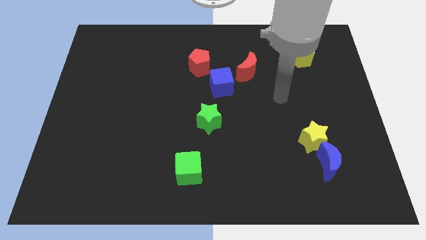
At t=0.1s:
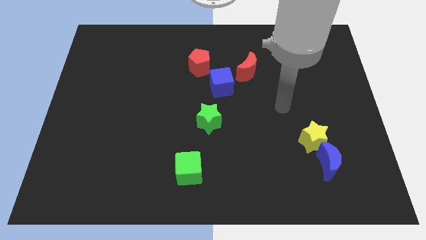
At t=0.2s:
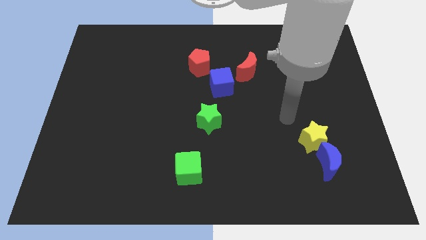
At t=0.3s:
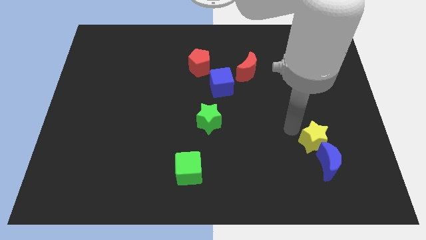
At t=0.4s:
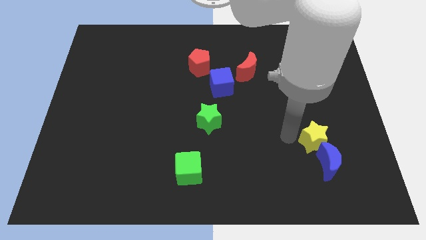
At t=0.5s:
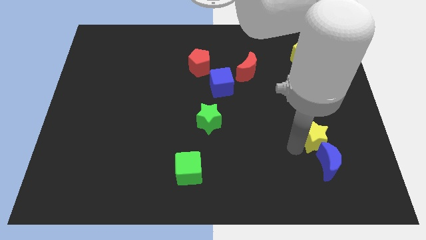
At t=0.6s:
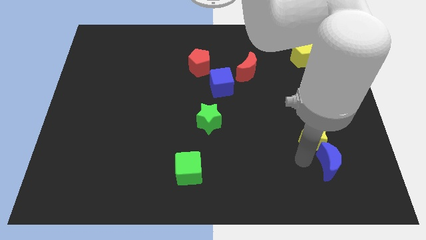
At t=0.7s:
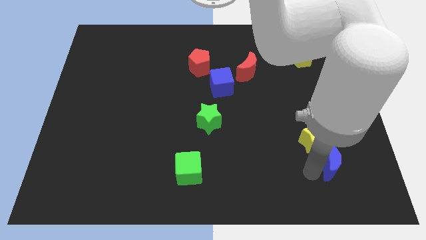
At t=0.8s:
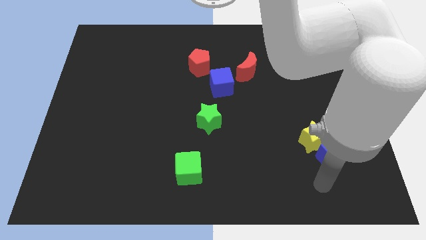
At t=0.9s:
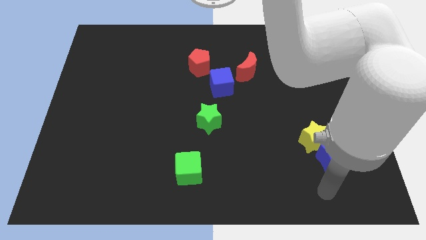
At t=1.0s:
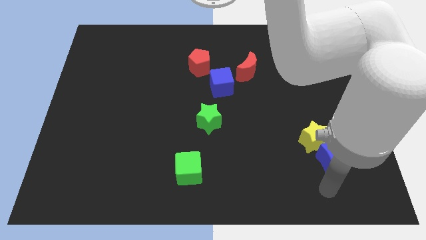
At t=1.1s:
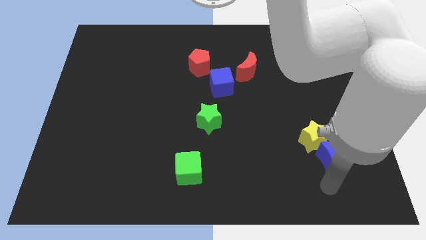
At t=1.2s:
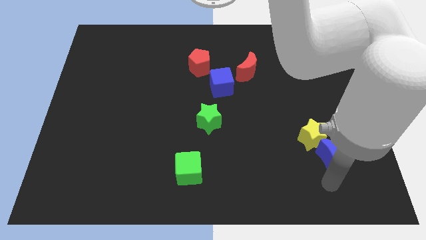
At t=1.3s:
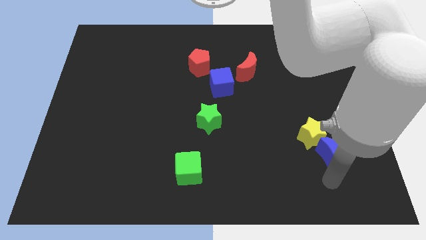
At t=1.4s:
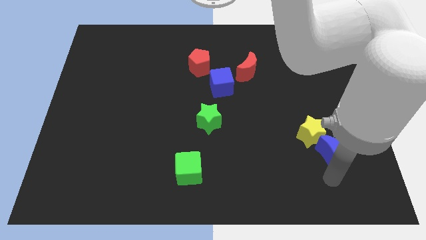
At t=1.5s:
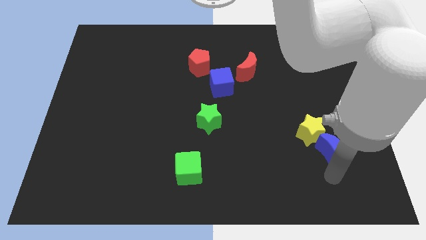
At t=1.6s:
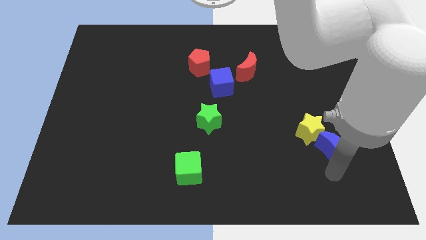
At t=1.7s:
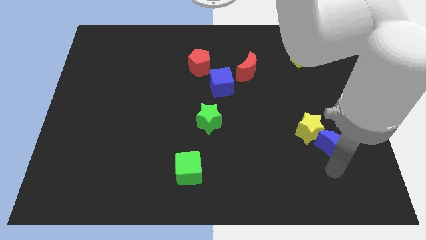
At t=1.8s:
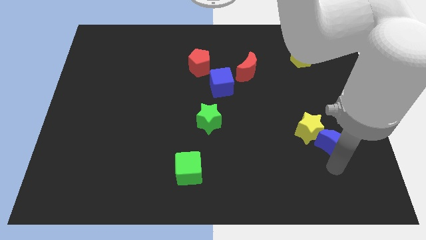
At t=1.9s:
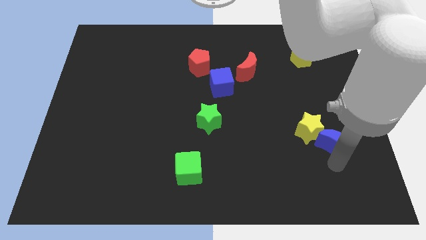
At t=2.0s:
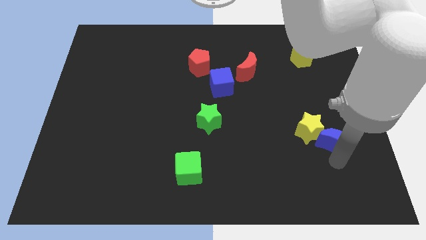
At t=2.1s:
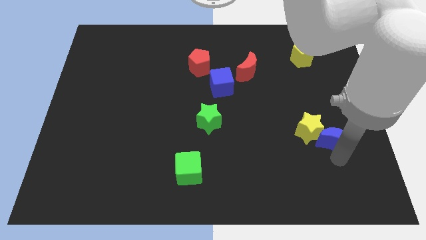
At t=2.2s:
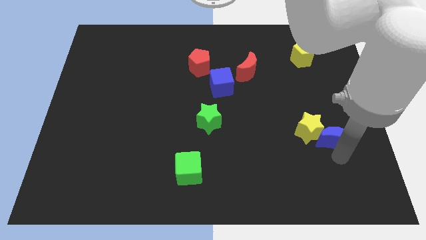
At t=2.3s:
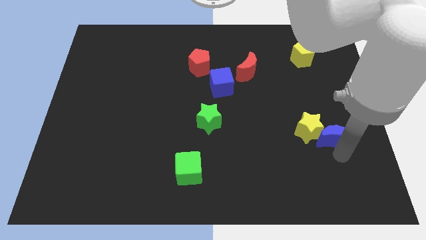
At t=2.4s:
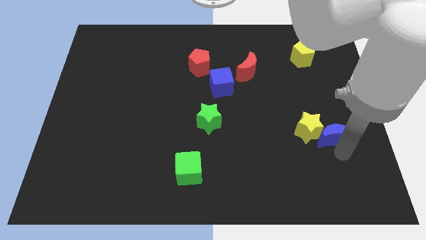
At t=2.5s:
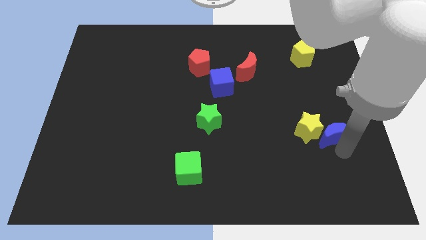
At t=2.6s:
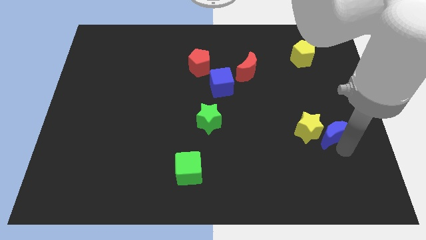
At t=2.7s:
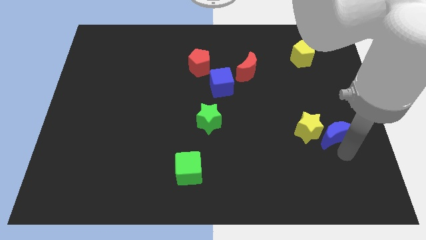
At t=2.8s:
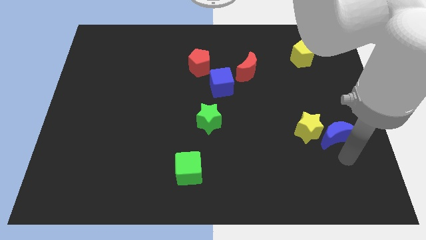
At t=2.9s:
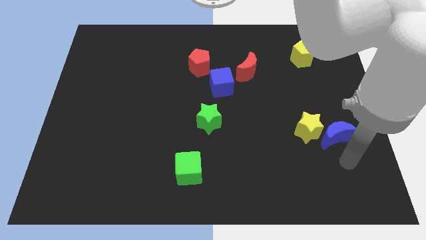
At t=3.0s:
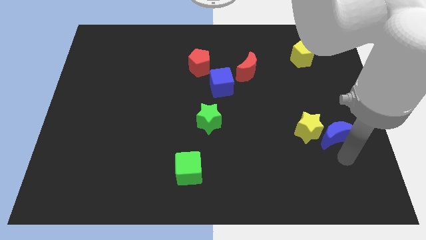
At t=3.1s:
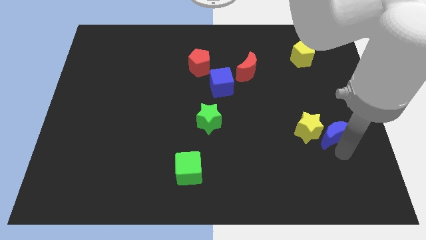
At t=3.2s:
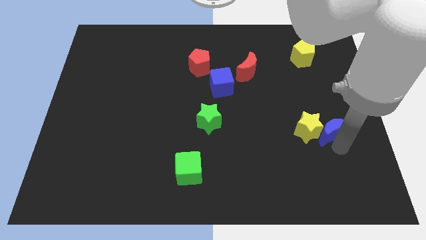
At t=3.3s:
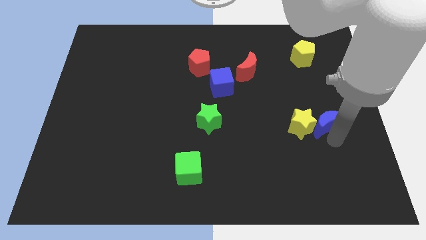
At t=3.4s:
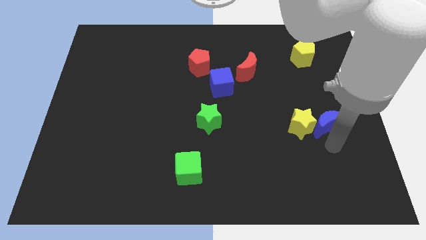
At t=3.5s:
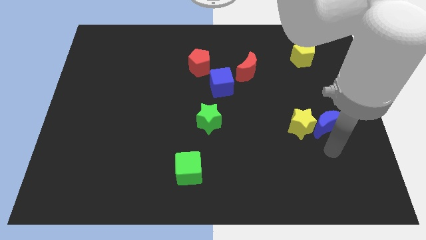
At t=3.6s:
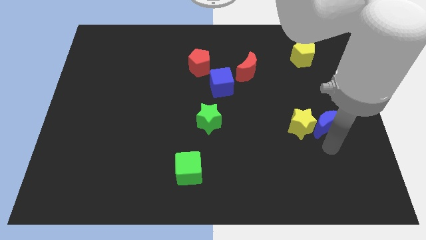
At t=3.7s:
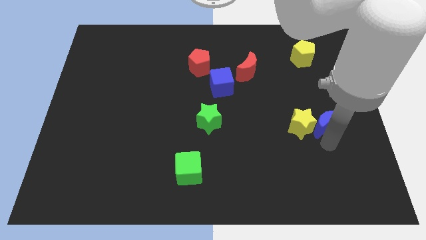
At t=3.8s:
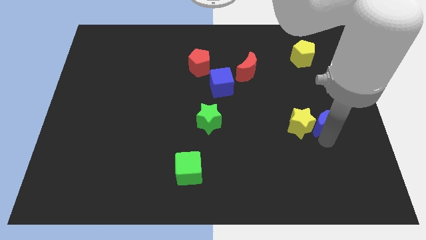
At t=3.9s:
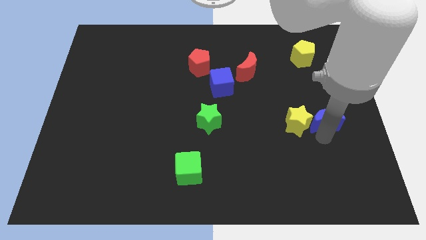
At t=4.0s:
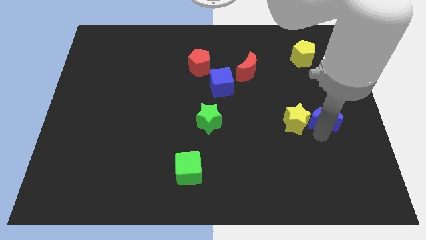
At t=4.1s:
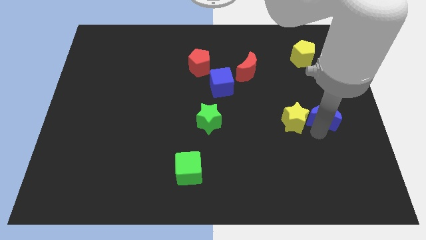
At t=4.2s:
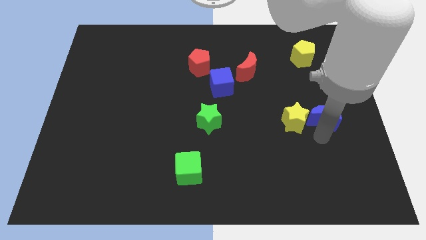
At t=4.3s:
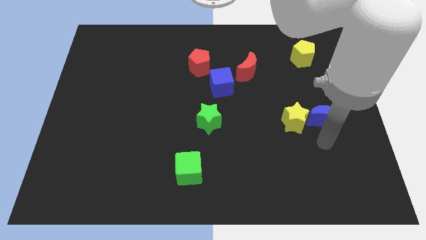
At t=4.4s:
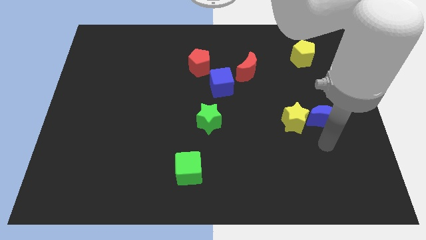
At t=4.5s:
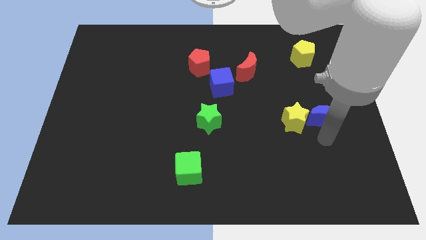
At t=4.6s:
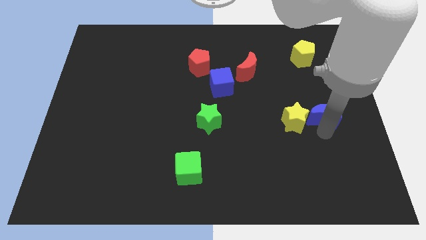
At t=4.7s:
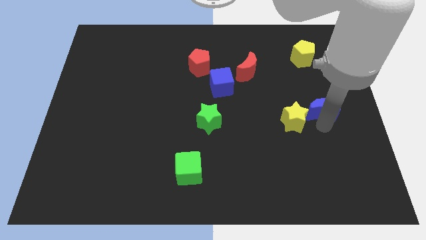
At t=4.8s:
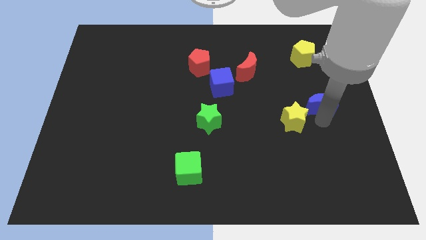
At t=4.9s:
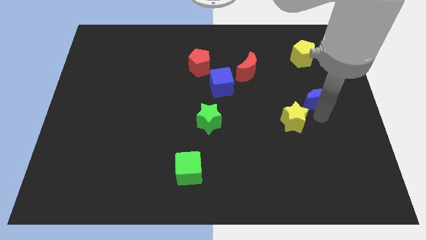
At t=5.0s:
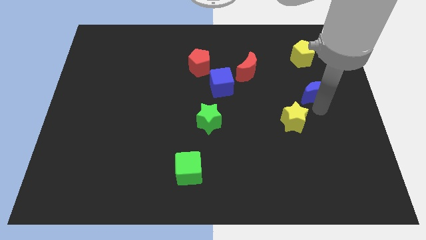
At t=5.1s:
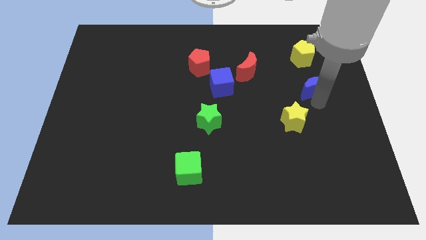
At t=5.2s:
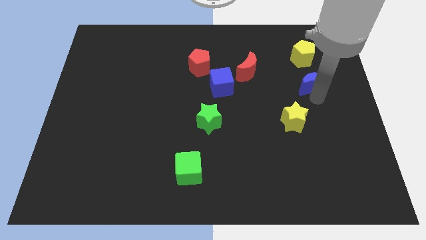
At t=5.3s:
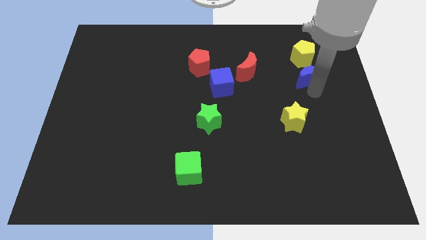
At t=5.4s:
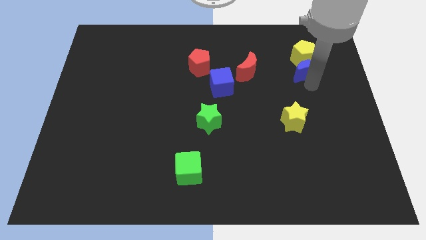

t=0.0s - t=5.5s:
move the blue moon towards the yellow pentagon

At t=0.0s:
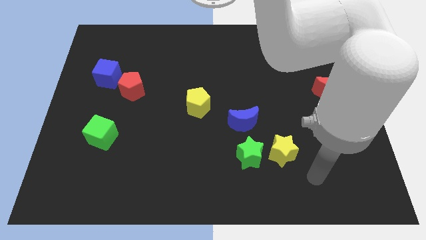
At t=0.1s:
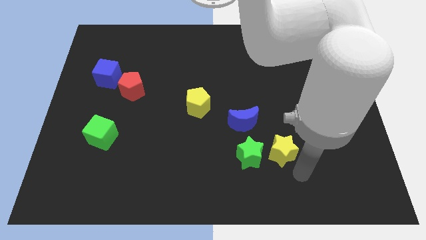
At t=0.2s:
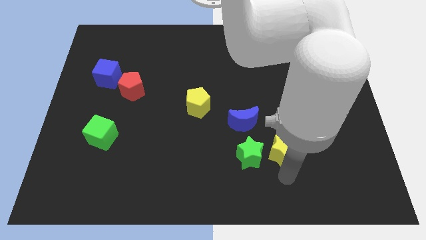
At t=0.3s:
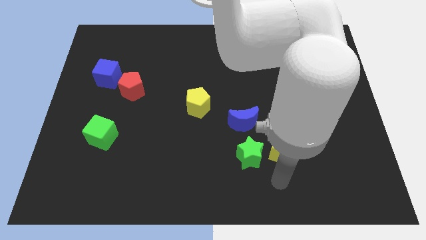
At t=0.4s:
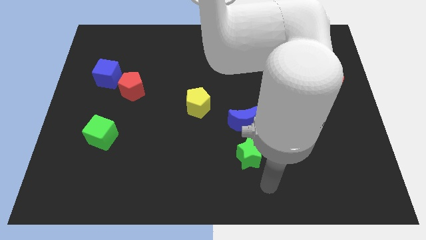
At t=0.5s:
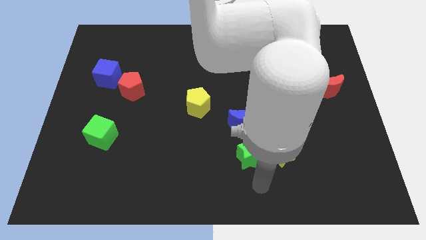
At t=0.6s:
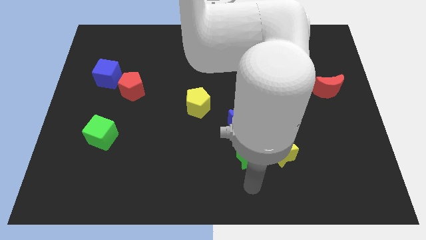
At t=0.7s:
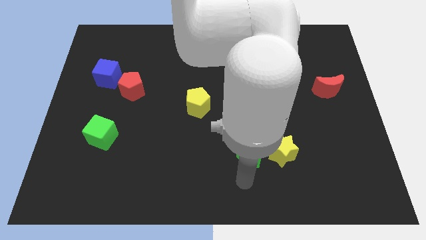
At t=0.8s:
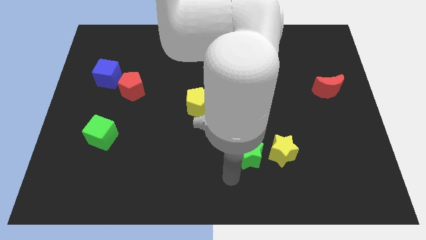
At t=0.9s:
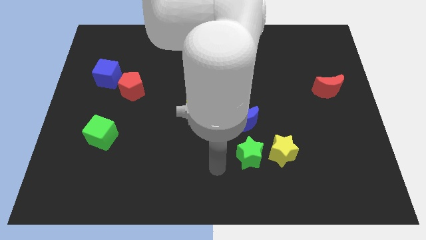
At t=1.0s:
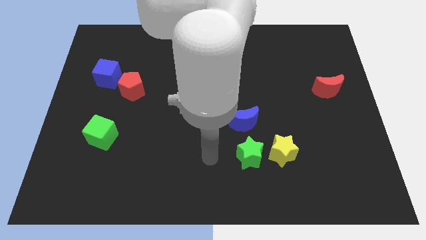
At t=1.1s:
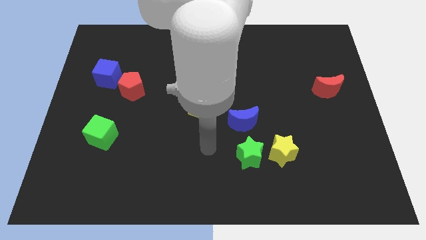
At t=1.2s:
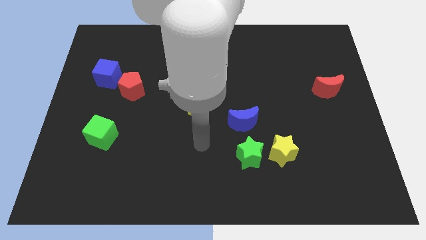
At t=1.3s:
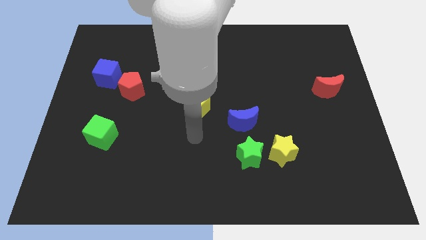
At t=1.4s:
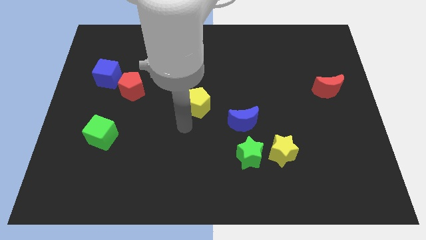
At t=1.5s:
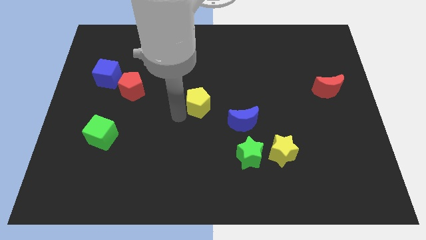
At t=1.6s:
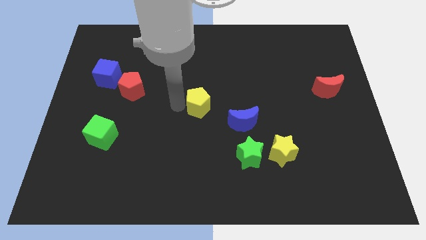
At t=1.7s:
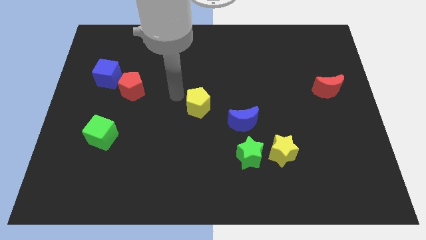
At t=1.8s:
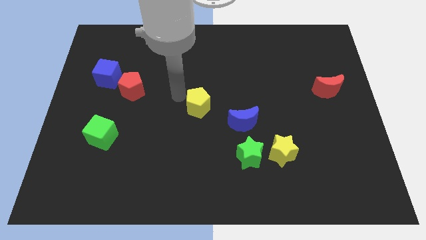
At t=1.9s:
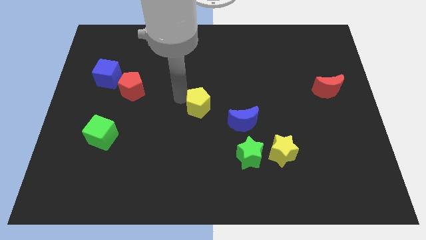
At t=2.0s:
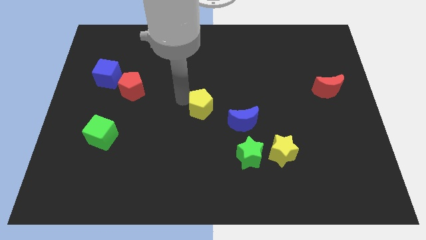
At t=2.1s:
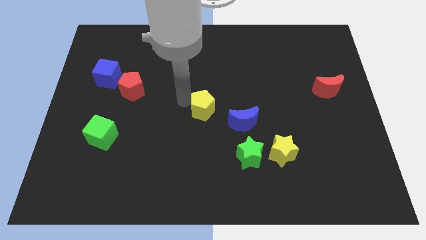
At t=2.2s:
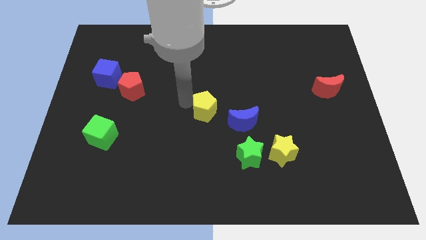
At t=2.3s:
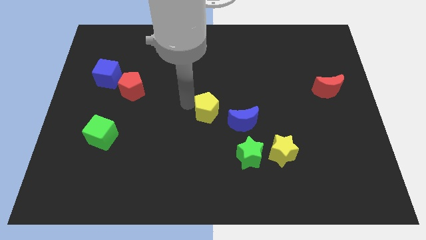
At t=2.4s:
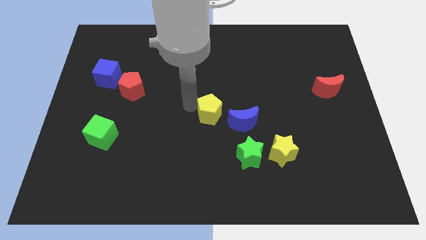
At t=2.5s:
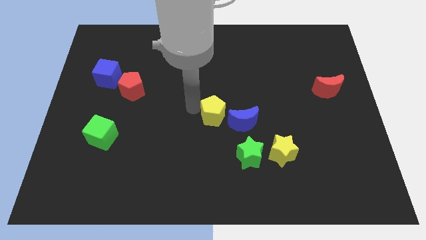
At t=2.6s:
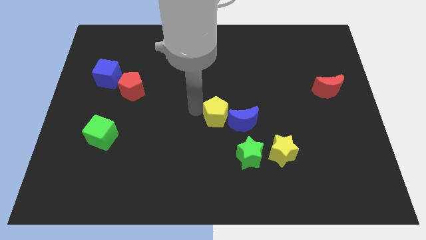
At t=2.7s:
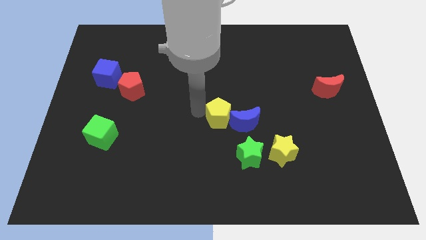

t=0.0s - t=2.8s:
slide the yellow pentagon to the blue moon
